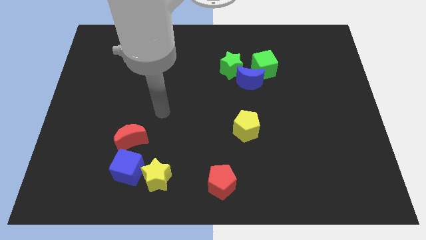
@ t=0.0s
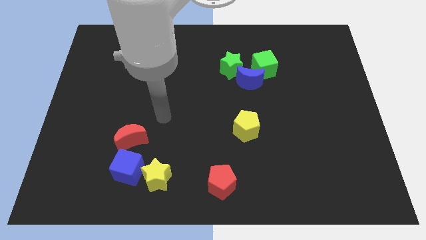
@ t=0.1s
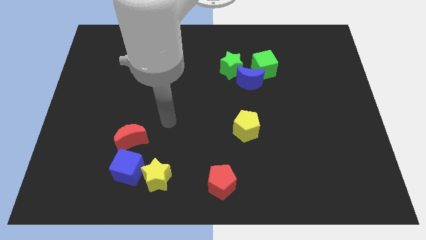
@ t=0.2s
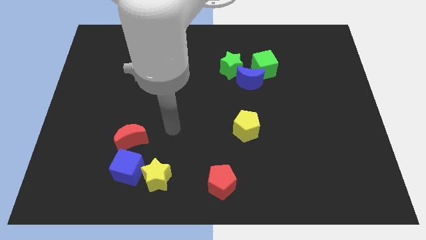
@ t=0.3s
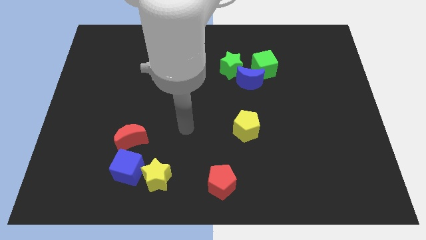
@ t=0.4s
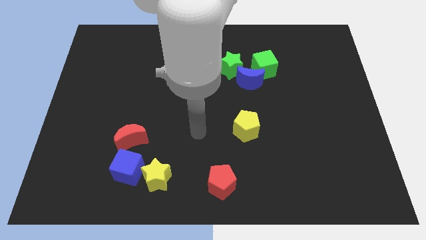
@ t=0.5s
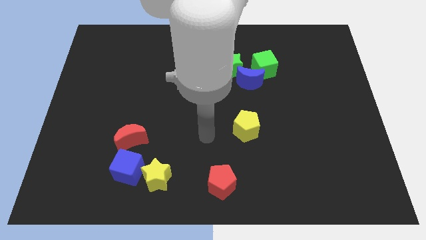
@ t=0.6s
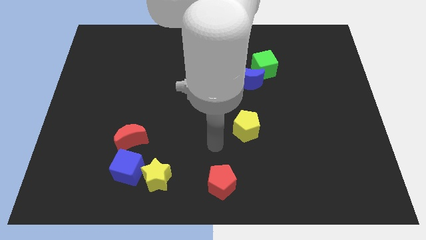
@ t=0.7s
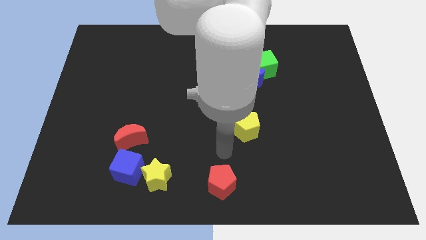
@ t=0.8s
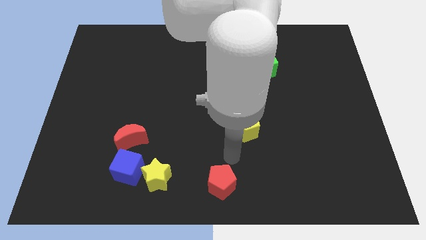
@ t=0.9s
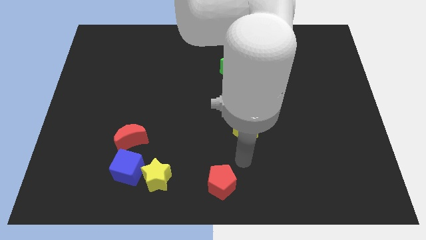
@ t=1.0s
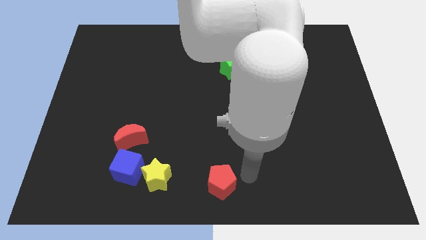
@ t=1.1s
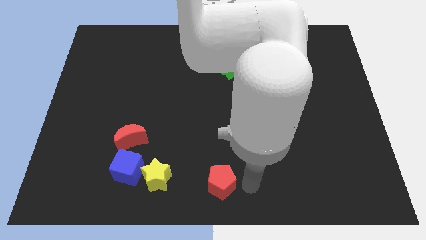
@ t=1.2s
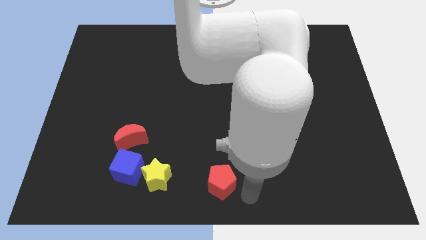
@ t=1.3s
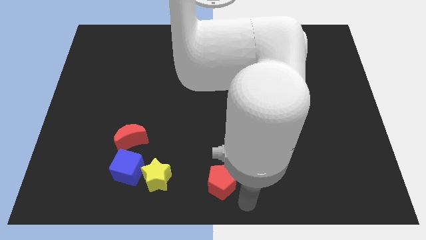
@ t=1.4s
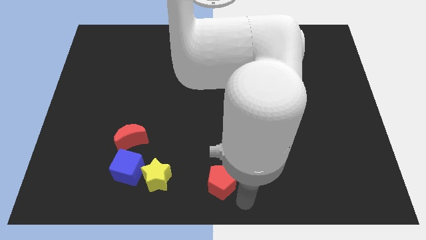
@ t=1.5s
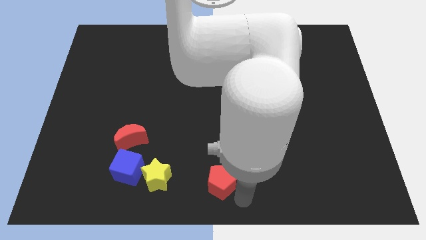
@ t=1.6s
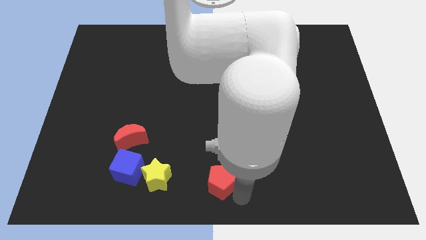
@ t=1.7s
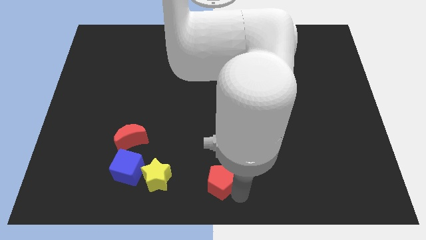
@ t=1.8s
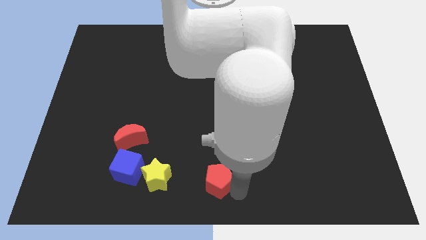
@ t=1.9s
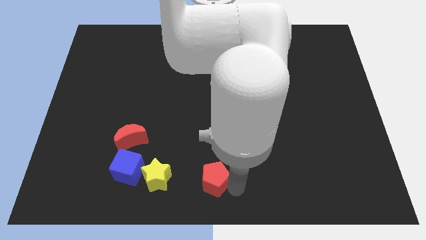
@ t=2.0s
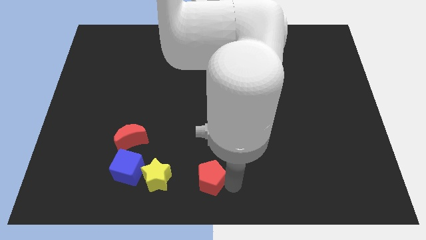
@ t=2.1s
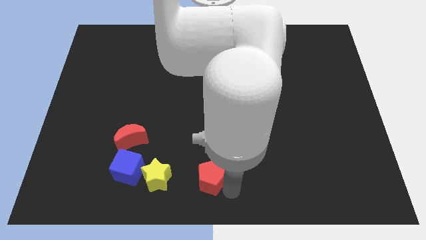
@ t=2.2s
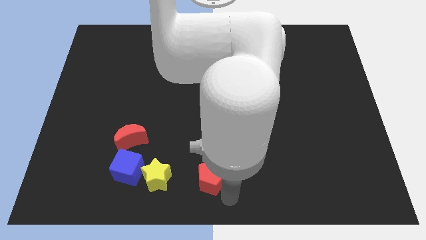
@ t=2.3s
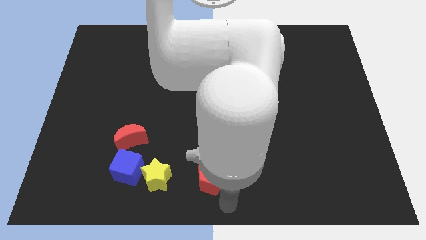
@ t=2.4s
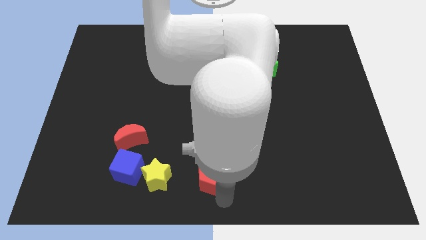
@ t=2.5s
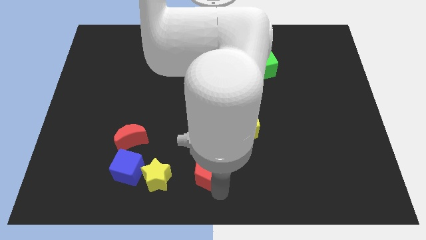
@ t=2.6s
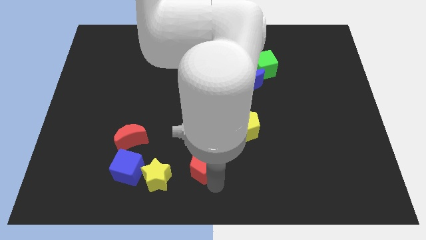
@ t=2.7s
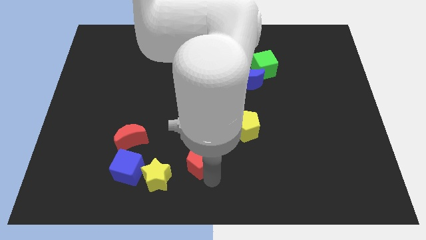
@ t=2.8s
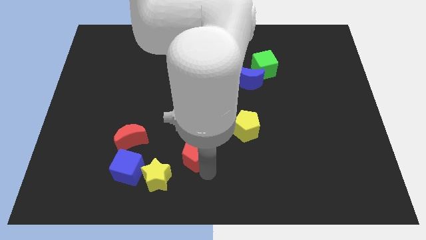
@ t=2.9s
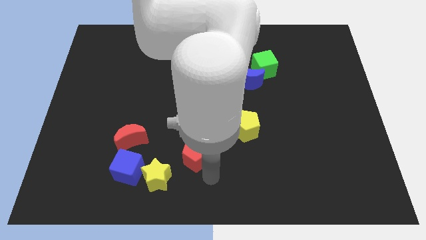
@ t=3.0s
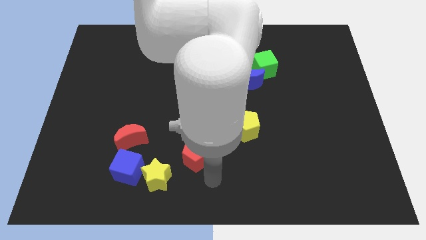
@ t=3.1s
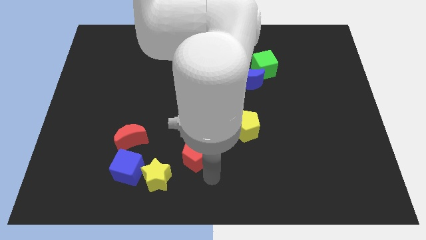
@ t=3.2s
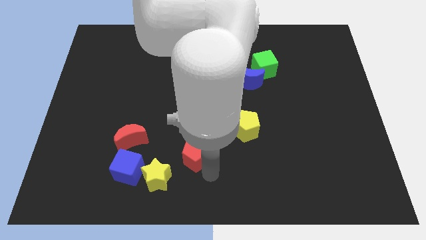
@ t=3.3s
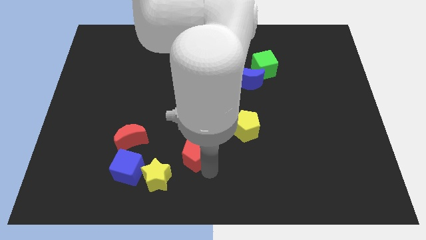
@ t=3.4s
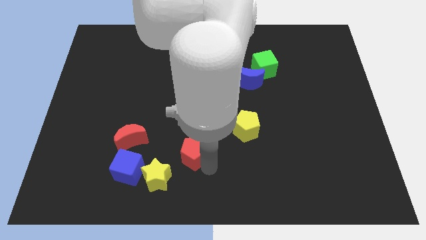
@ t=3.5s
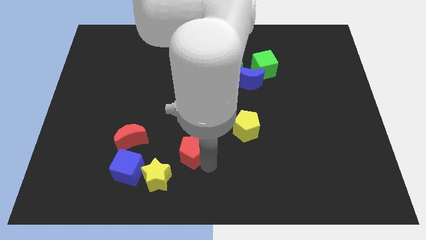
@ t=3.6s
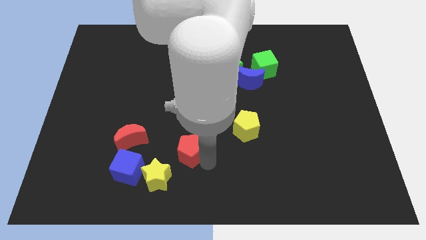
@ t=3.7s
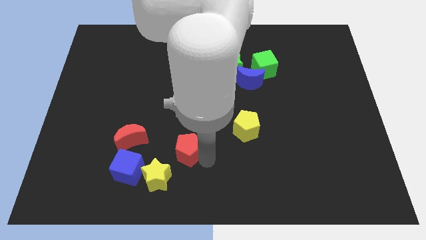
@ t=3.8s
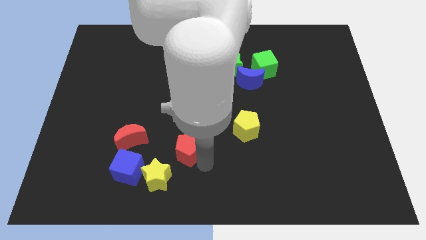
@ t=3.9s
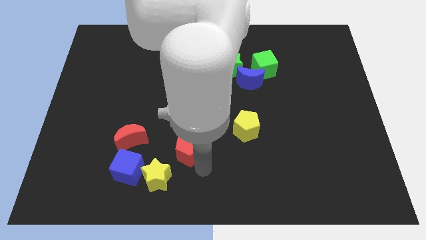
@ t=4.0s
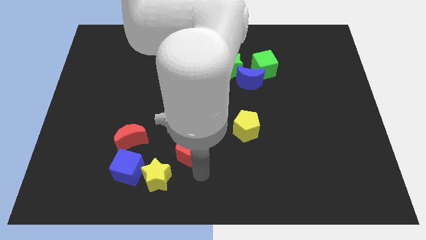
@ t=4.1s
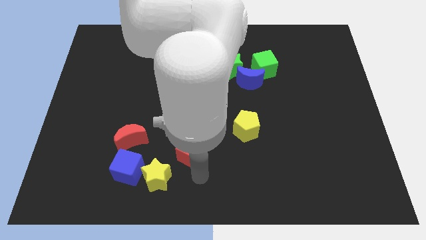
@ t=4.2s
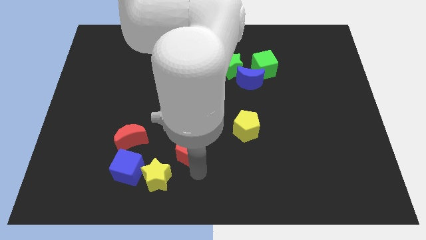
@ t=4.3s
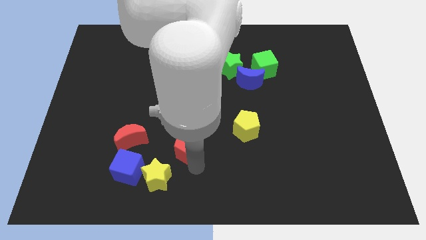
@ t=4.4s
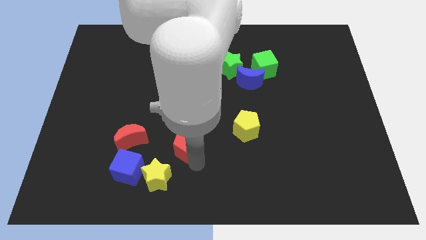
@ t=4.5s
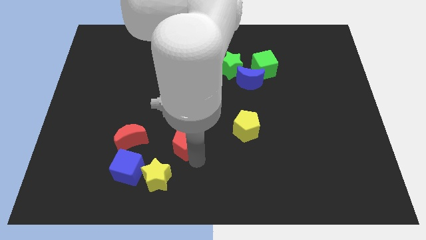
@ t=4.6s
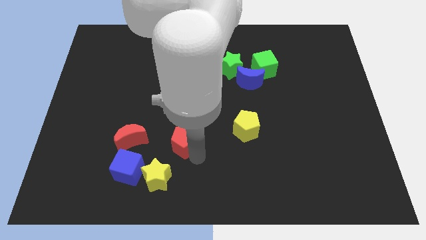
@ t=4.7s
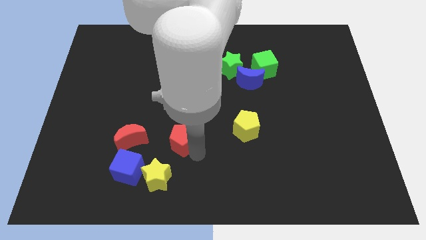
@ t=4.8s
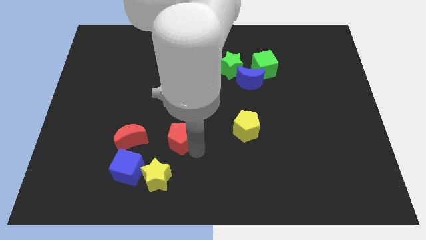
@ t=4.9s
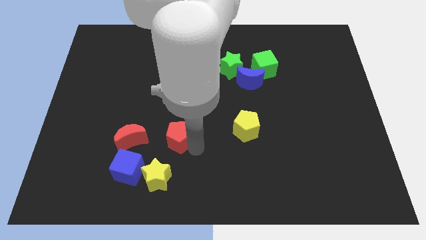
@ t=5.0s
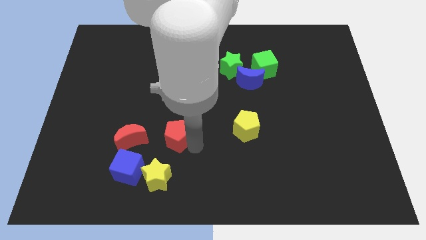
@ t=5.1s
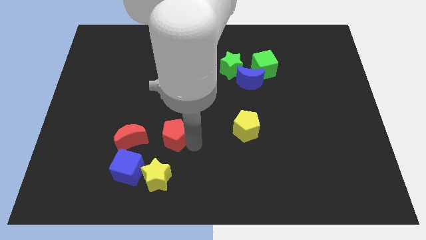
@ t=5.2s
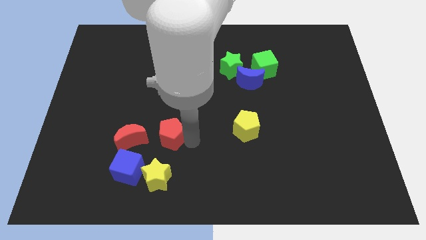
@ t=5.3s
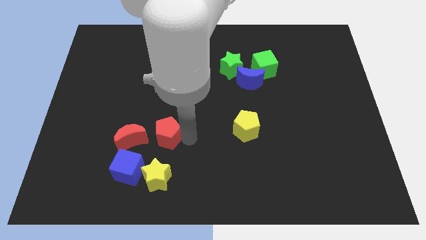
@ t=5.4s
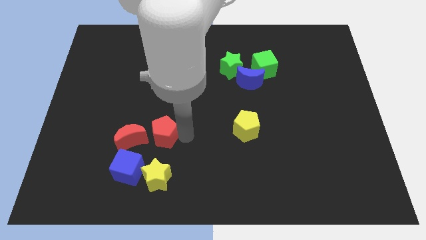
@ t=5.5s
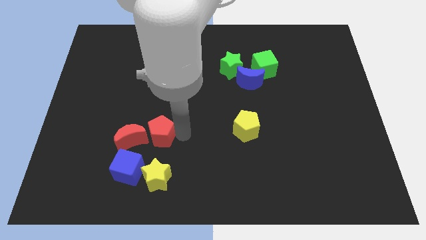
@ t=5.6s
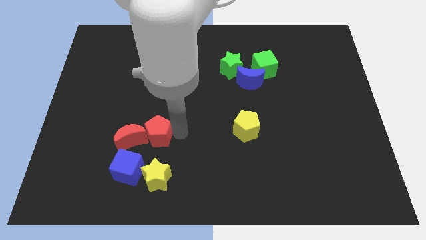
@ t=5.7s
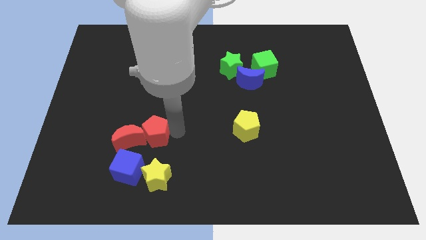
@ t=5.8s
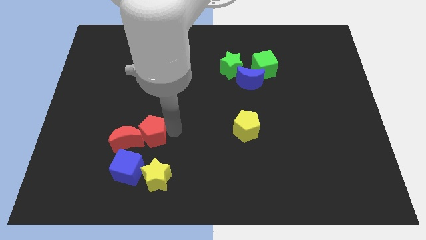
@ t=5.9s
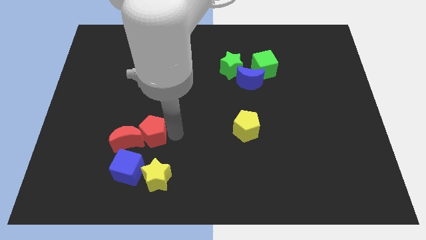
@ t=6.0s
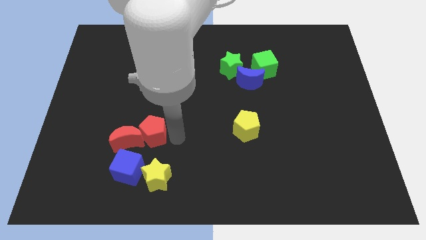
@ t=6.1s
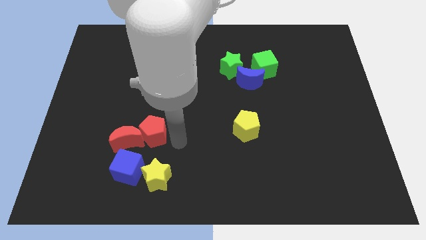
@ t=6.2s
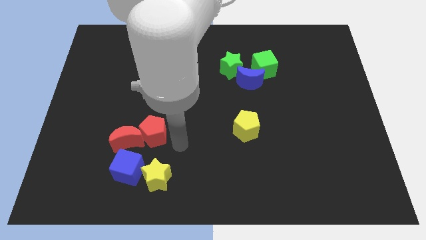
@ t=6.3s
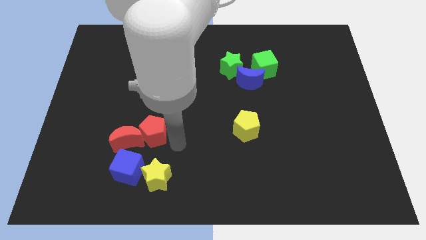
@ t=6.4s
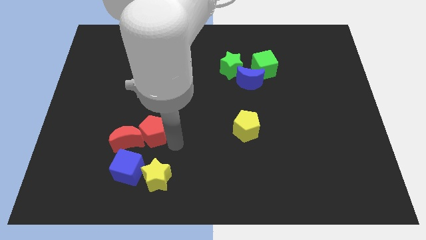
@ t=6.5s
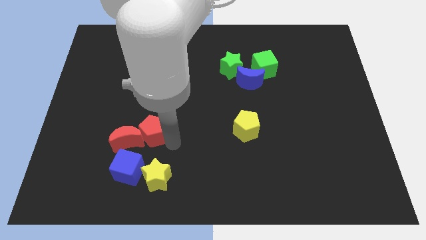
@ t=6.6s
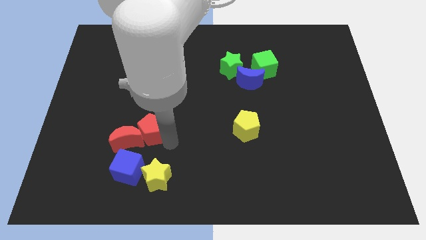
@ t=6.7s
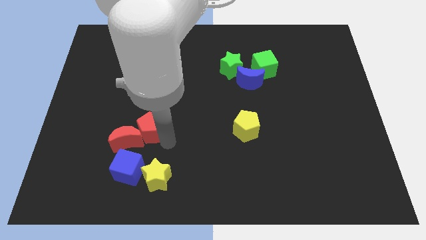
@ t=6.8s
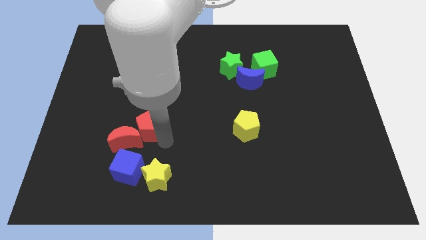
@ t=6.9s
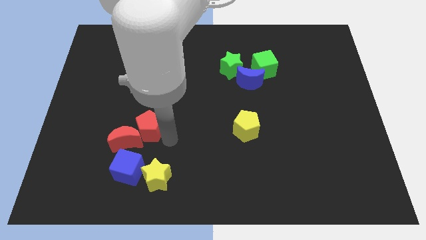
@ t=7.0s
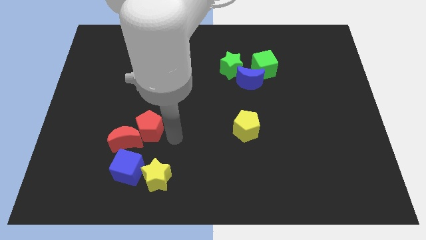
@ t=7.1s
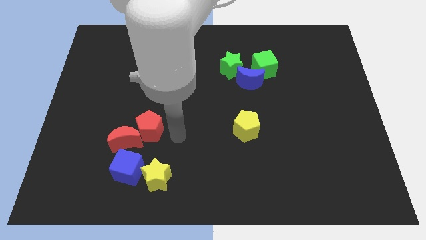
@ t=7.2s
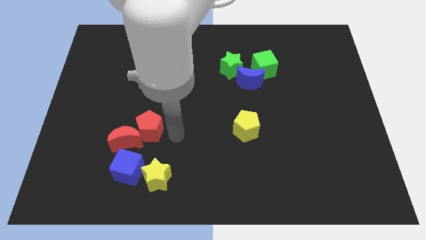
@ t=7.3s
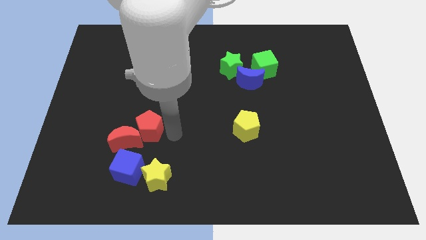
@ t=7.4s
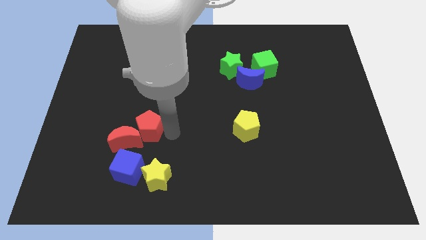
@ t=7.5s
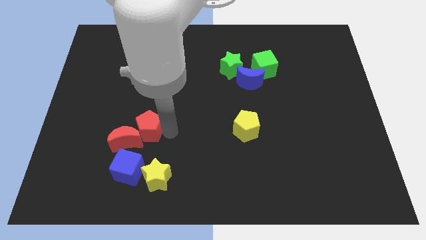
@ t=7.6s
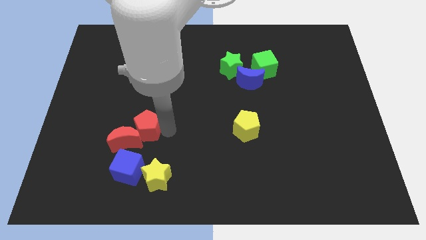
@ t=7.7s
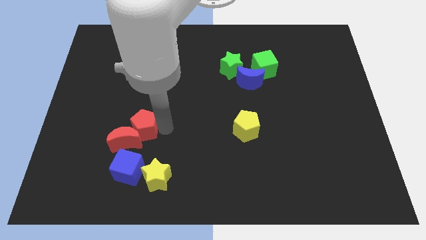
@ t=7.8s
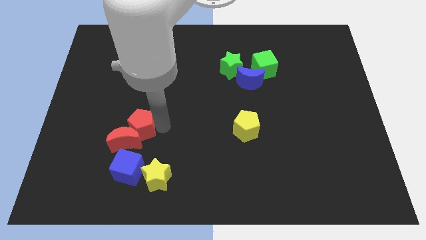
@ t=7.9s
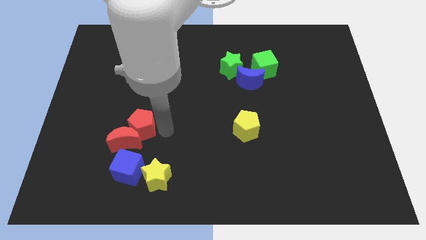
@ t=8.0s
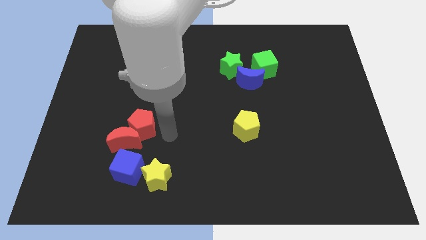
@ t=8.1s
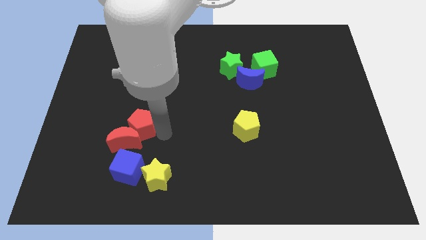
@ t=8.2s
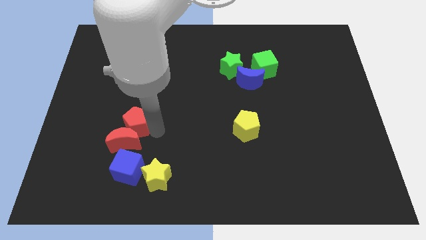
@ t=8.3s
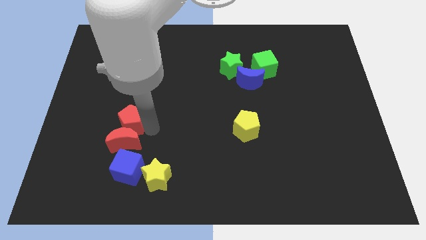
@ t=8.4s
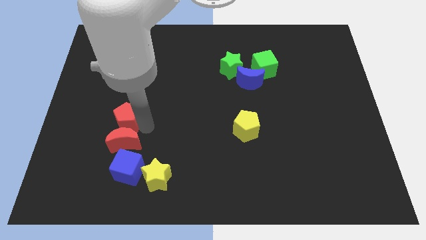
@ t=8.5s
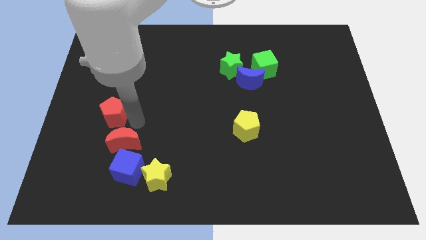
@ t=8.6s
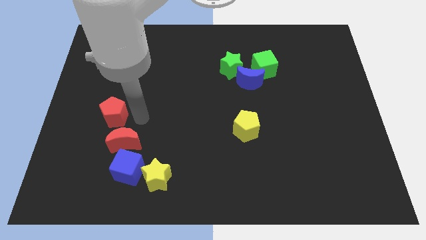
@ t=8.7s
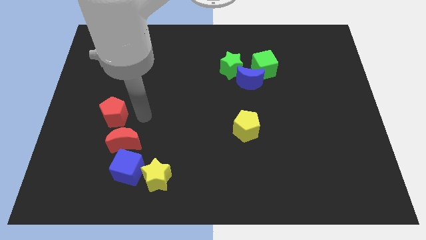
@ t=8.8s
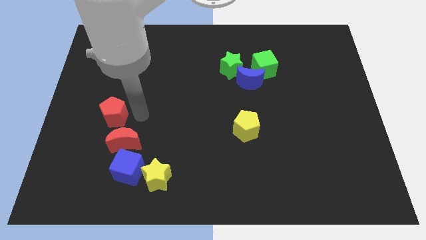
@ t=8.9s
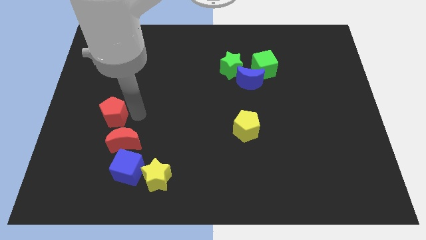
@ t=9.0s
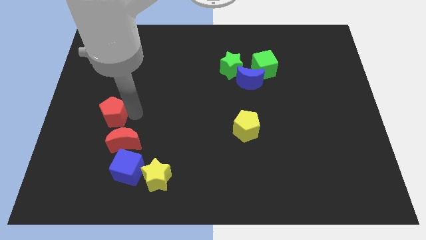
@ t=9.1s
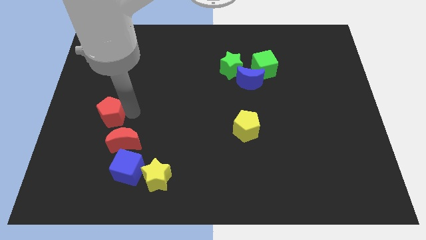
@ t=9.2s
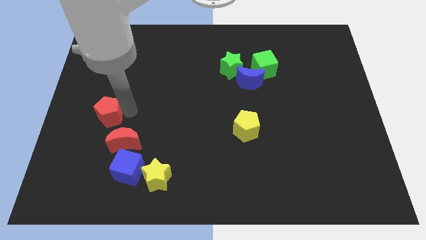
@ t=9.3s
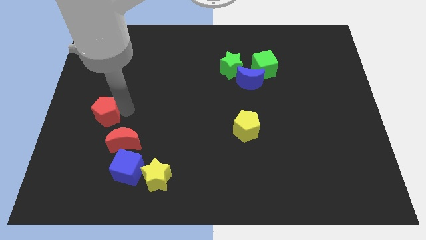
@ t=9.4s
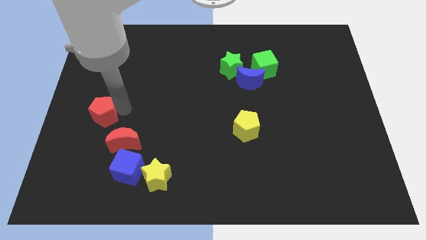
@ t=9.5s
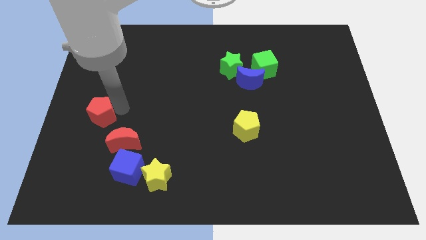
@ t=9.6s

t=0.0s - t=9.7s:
put the red pentagon to the left side
